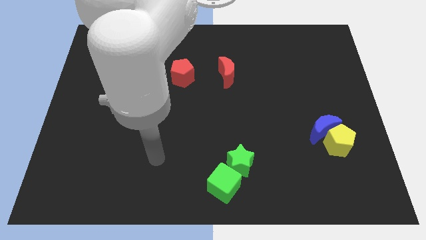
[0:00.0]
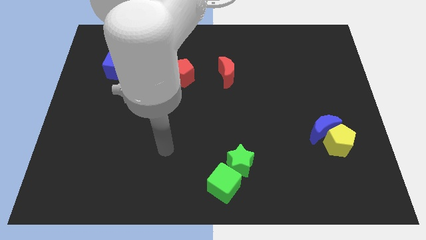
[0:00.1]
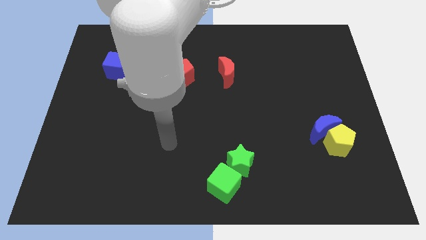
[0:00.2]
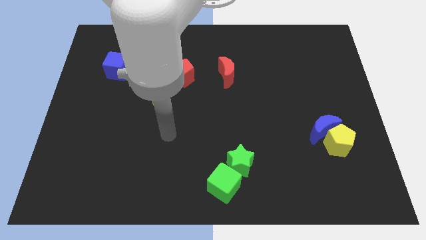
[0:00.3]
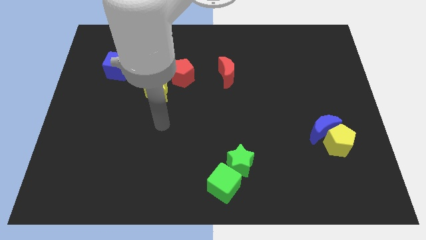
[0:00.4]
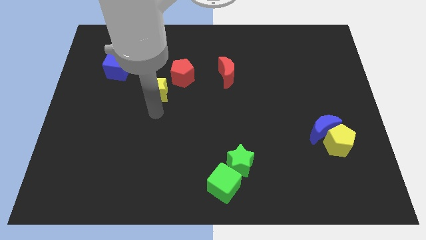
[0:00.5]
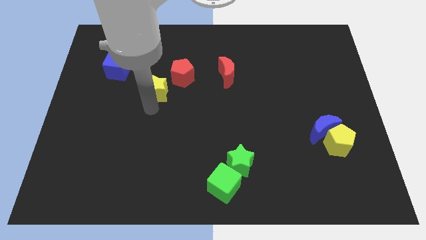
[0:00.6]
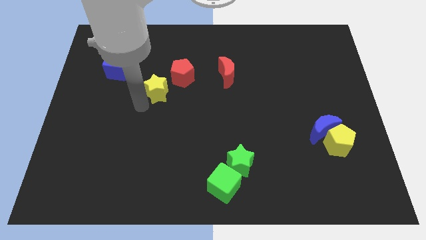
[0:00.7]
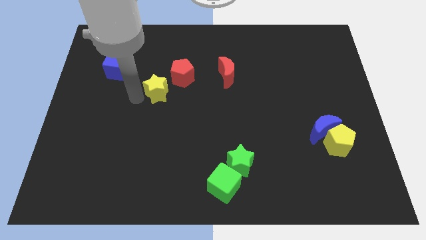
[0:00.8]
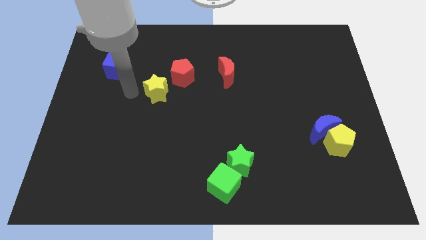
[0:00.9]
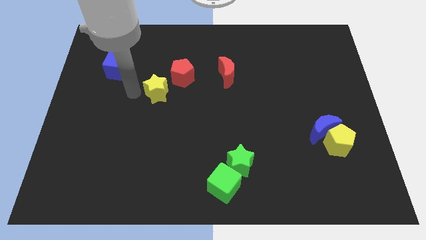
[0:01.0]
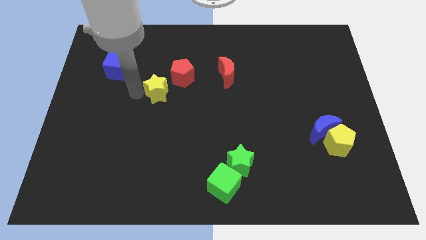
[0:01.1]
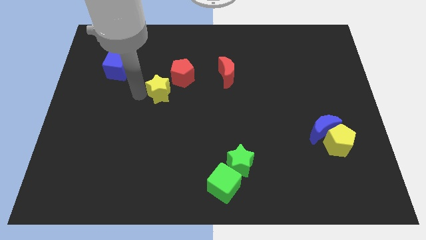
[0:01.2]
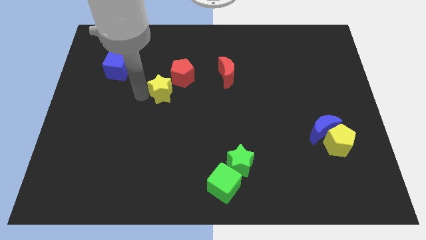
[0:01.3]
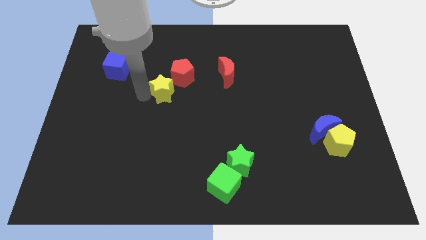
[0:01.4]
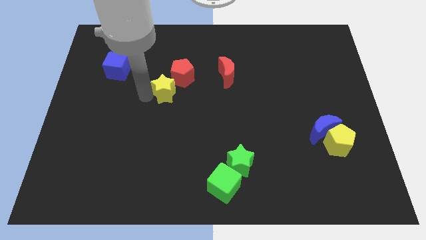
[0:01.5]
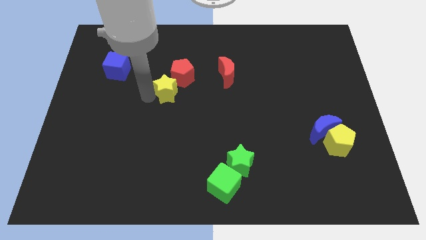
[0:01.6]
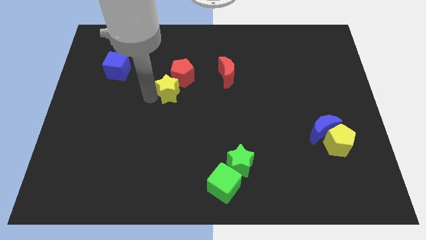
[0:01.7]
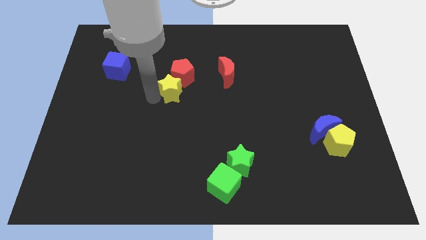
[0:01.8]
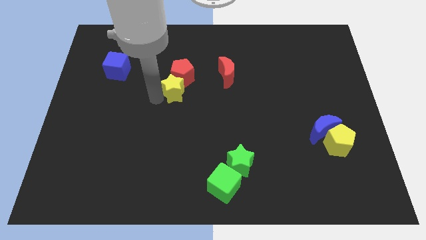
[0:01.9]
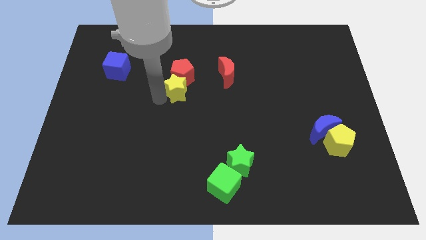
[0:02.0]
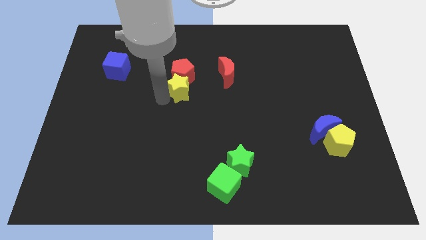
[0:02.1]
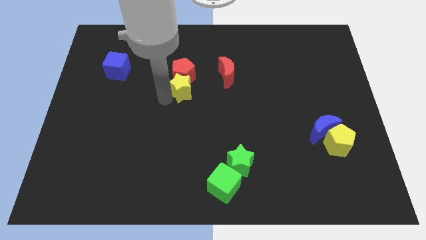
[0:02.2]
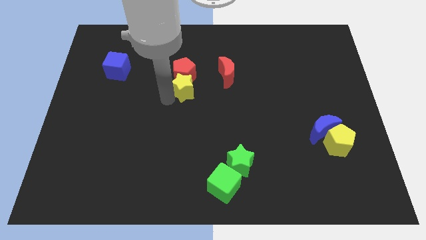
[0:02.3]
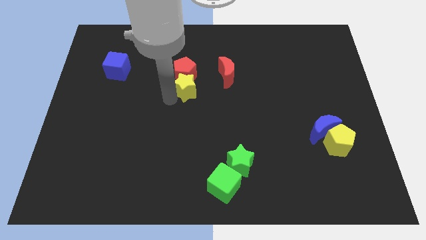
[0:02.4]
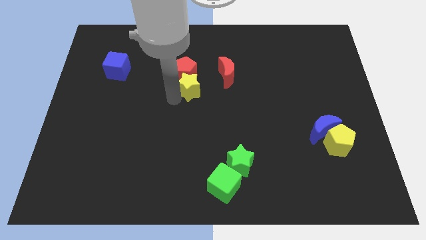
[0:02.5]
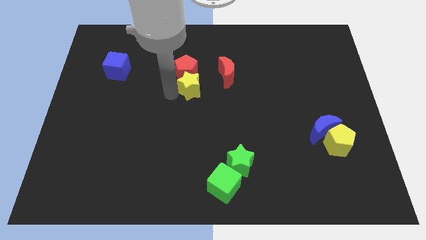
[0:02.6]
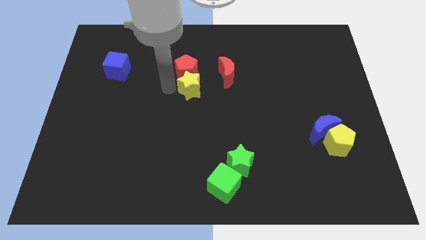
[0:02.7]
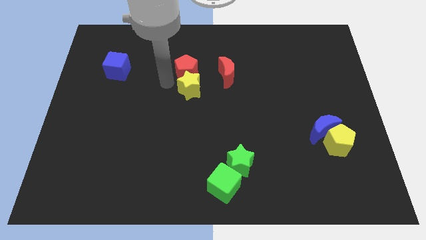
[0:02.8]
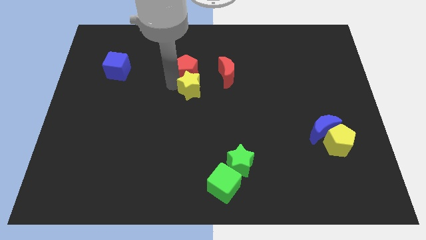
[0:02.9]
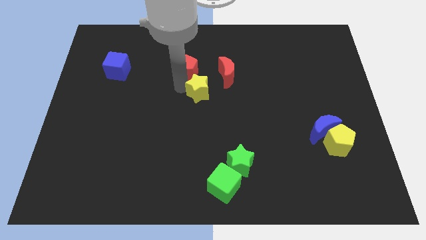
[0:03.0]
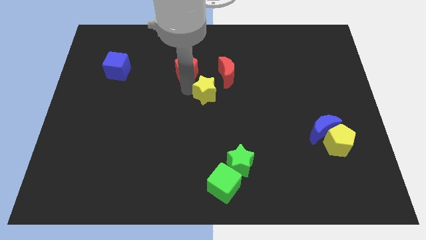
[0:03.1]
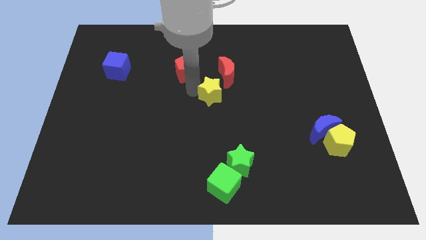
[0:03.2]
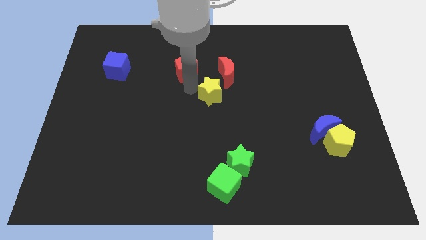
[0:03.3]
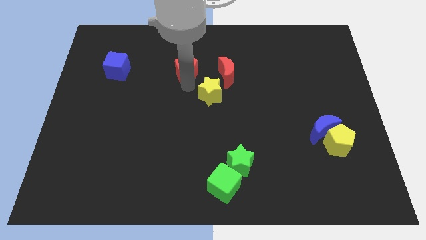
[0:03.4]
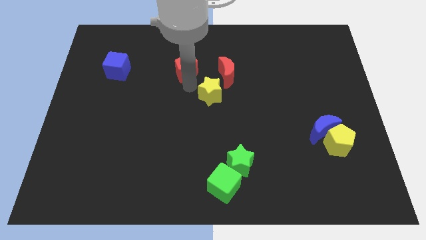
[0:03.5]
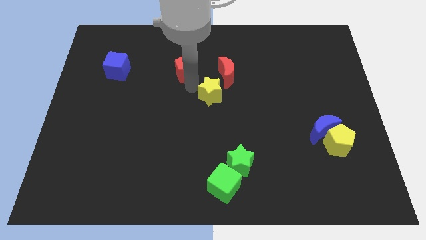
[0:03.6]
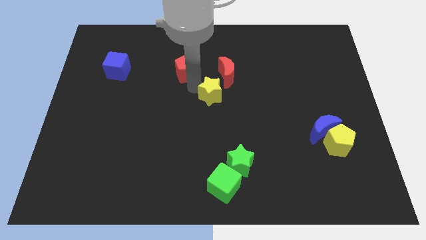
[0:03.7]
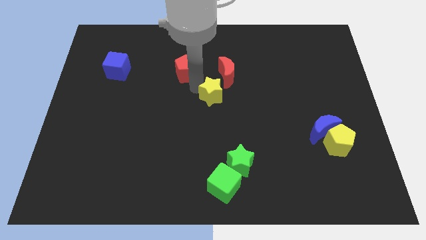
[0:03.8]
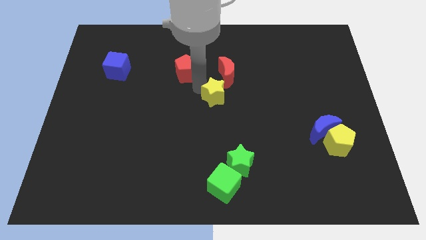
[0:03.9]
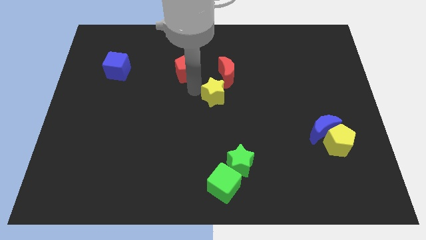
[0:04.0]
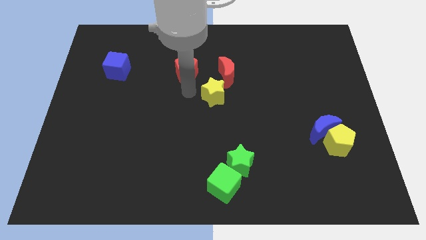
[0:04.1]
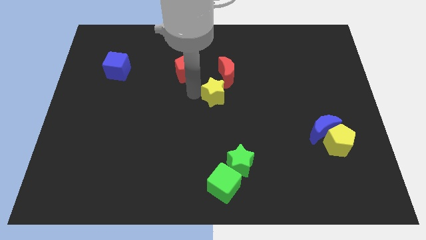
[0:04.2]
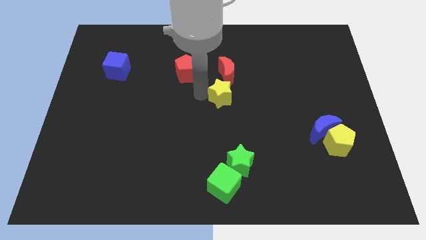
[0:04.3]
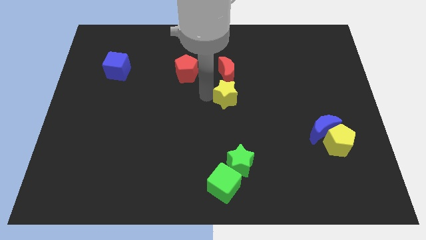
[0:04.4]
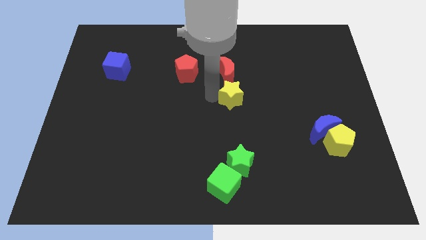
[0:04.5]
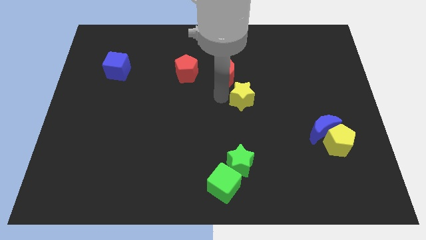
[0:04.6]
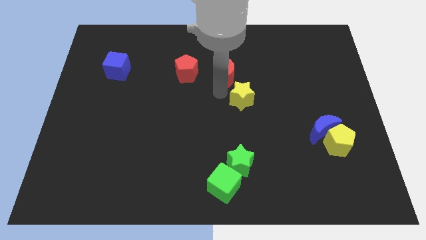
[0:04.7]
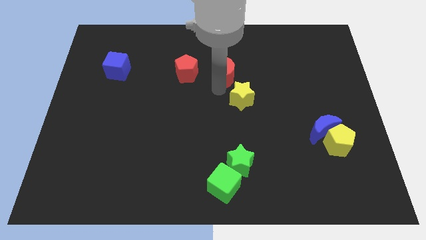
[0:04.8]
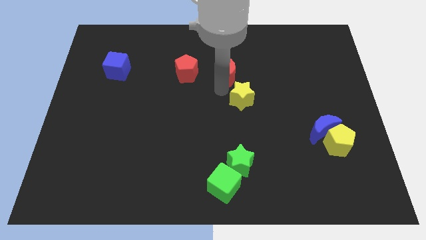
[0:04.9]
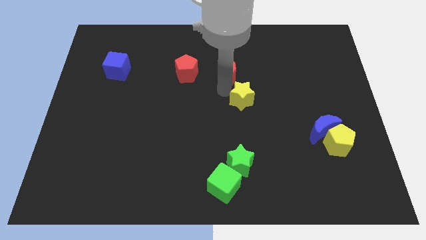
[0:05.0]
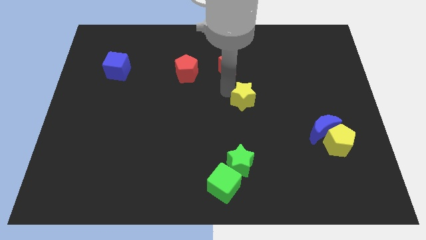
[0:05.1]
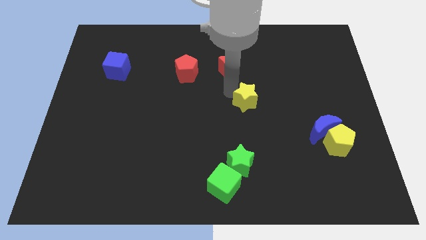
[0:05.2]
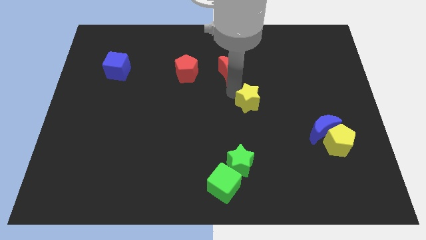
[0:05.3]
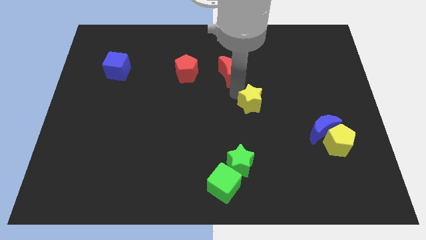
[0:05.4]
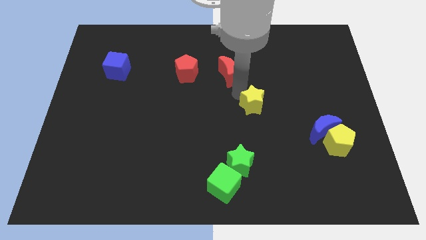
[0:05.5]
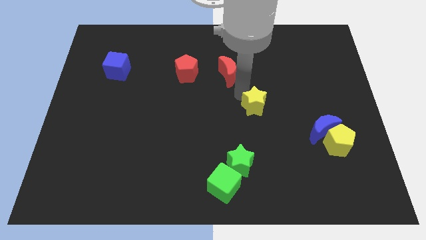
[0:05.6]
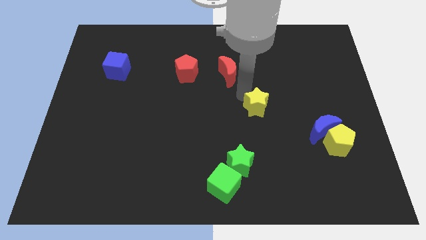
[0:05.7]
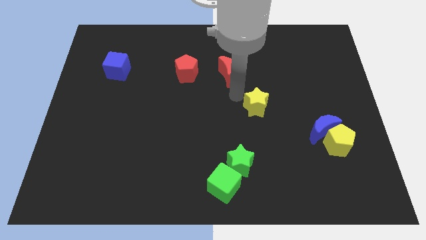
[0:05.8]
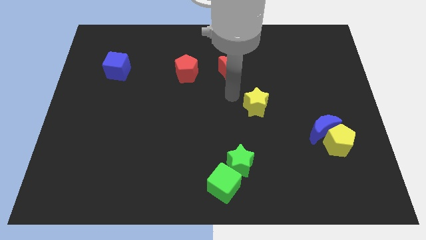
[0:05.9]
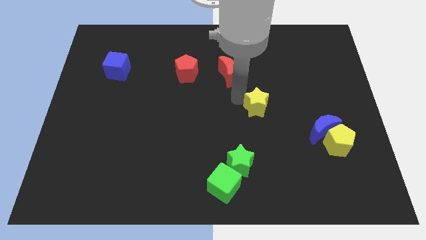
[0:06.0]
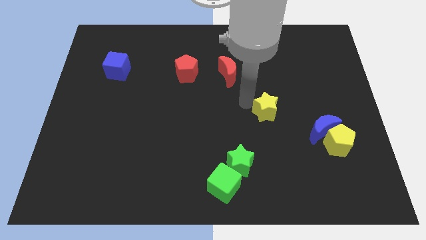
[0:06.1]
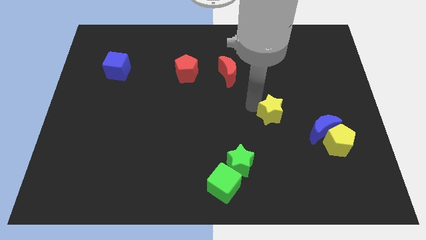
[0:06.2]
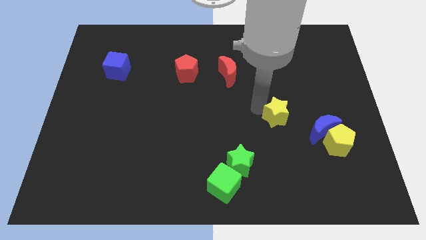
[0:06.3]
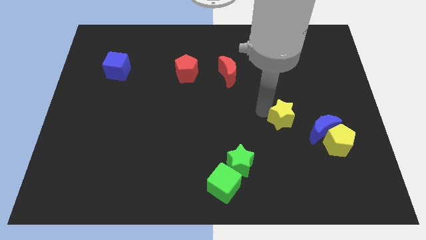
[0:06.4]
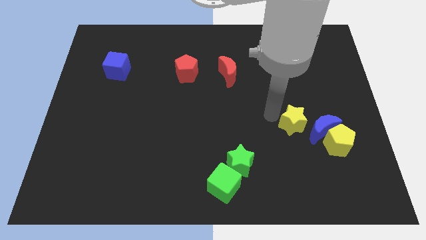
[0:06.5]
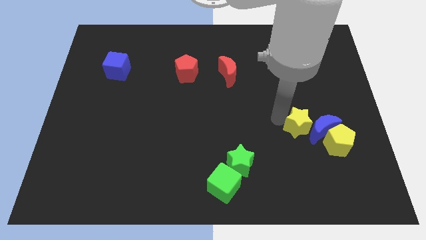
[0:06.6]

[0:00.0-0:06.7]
put the yellow star to the blue moon
